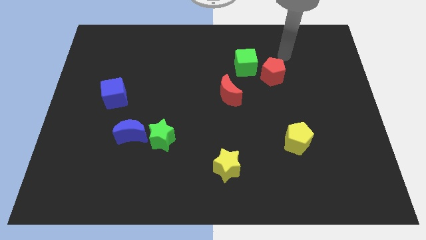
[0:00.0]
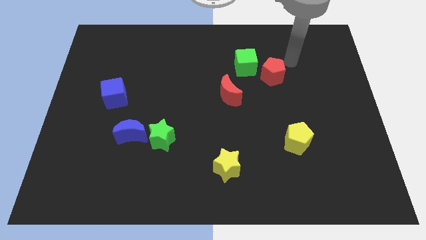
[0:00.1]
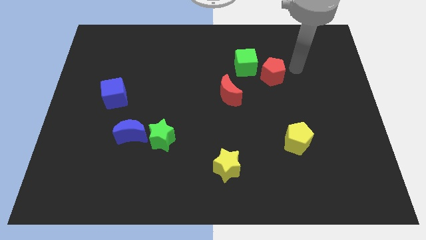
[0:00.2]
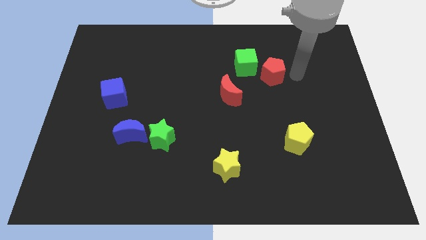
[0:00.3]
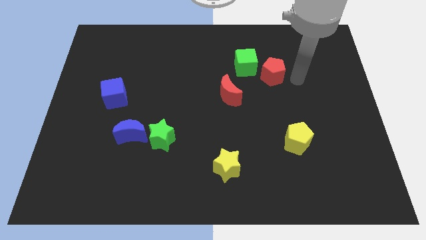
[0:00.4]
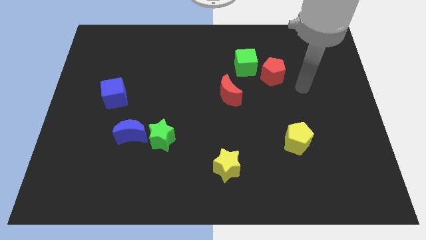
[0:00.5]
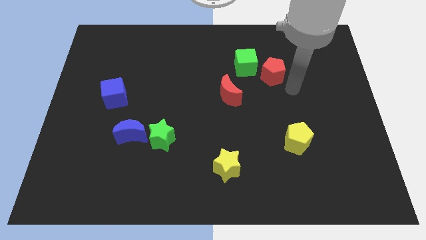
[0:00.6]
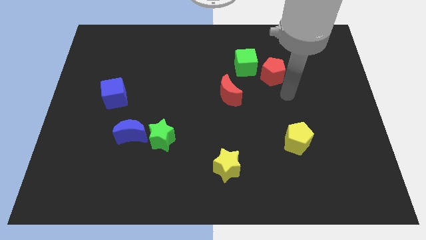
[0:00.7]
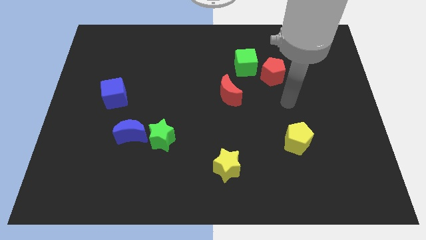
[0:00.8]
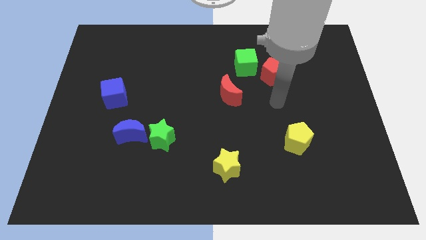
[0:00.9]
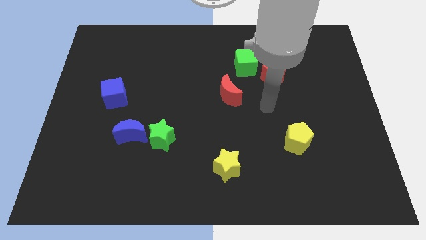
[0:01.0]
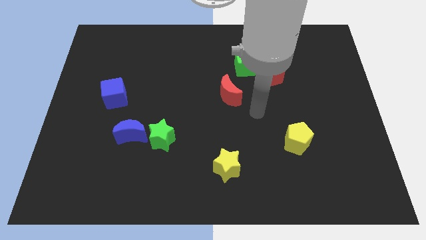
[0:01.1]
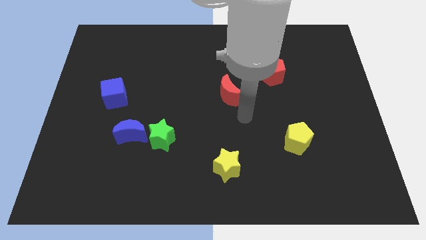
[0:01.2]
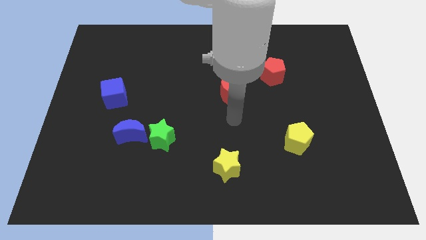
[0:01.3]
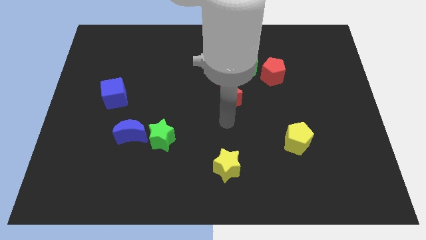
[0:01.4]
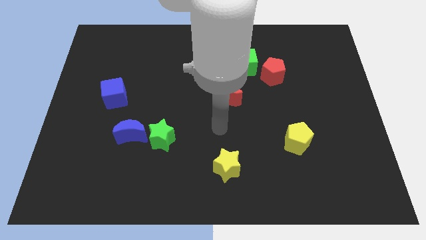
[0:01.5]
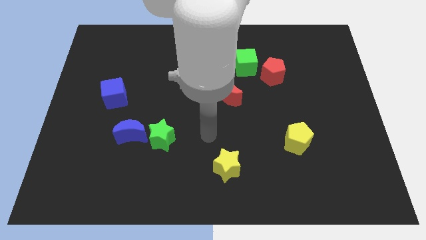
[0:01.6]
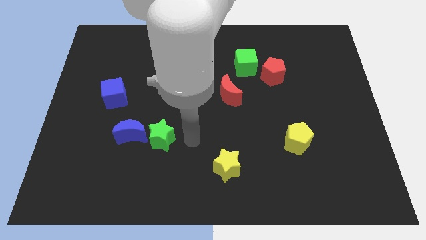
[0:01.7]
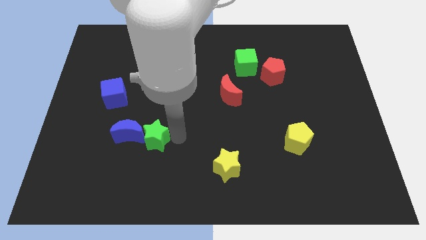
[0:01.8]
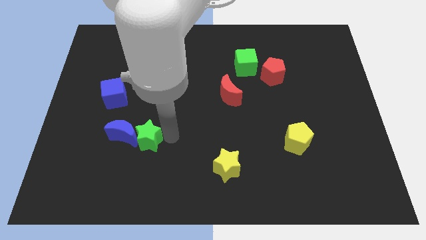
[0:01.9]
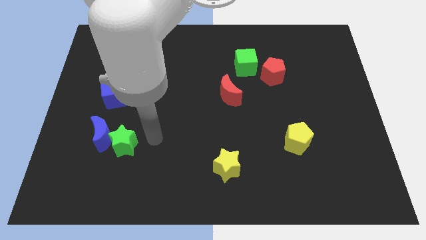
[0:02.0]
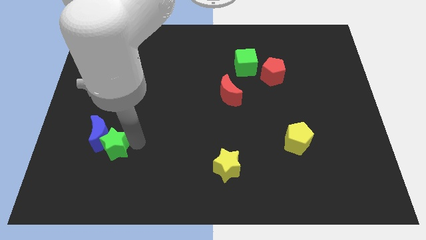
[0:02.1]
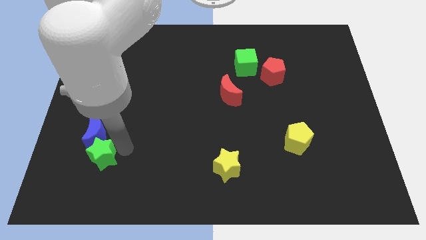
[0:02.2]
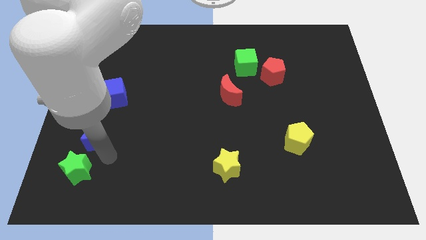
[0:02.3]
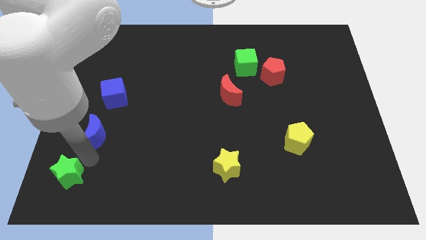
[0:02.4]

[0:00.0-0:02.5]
pull the blue moon apart from the green star

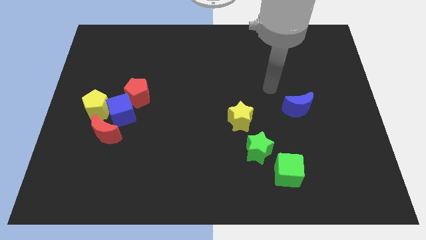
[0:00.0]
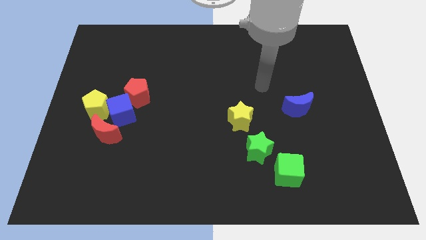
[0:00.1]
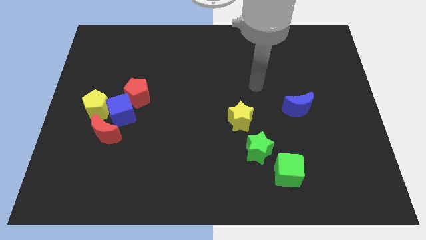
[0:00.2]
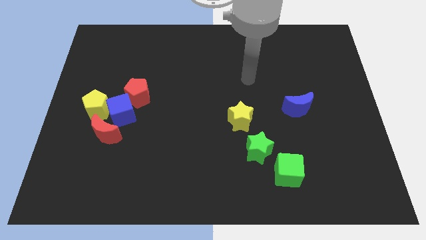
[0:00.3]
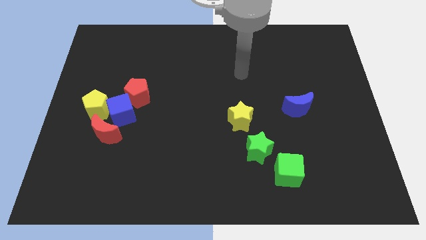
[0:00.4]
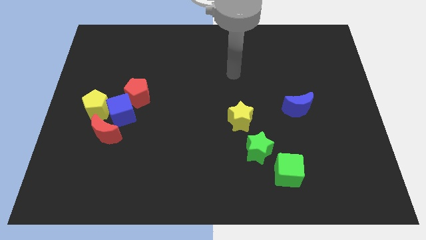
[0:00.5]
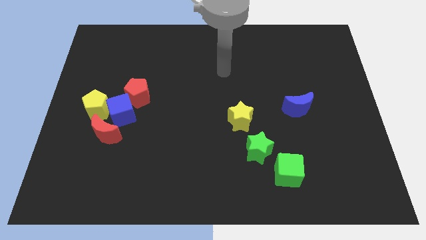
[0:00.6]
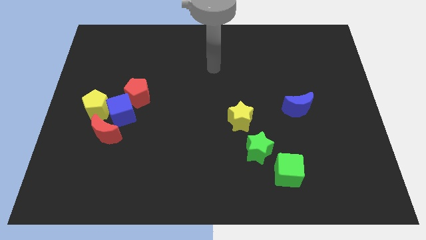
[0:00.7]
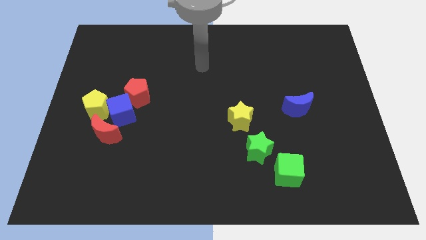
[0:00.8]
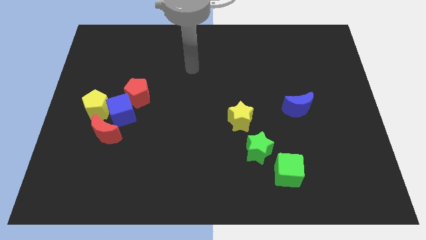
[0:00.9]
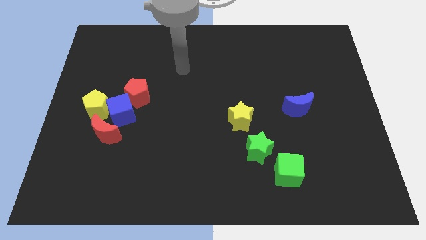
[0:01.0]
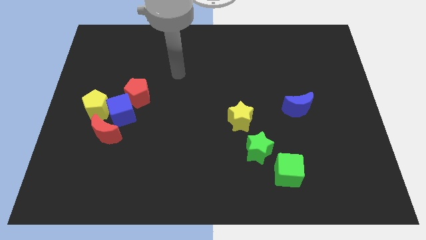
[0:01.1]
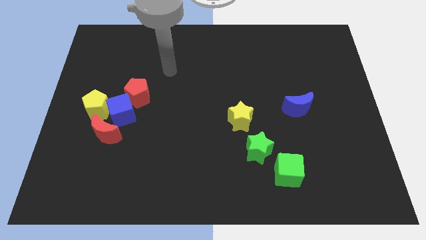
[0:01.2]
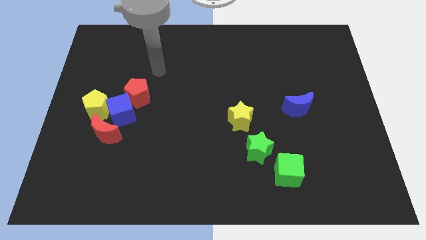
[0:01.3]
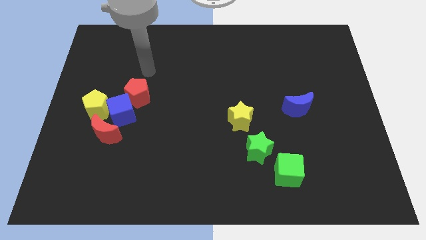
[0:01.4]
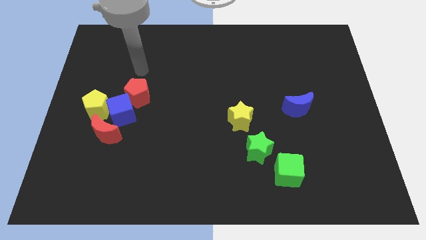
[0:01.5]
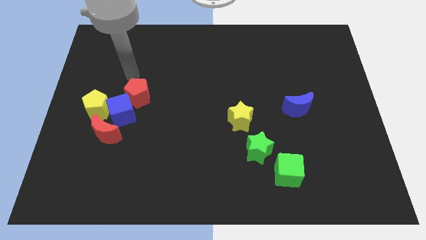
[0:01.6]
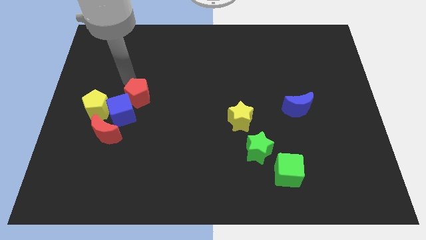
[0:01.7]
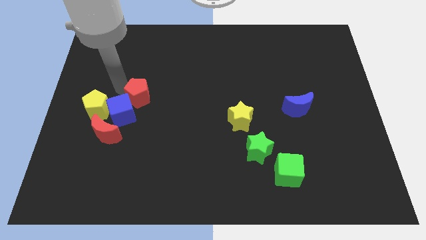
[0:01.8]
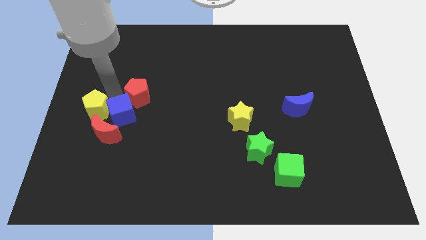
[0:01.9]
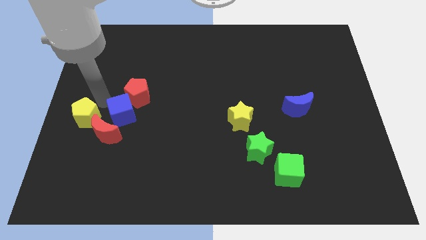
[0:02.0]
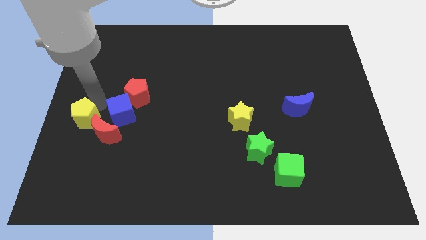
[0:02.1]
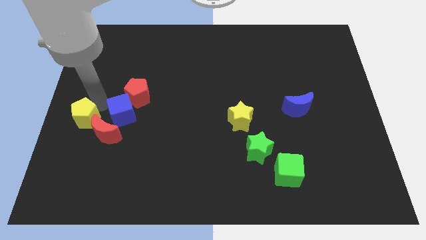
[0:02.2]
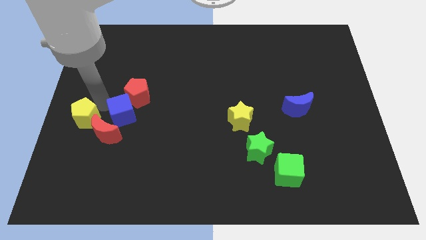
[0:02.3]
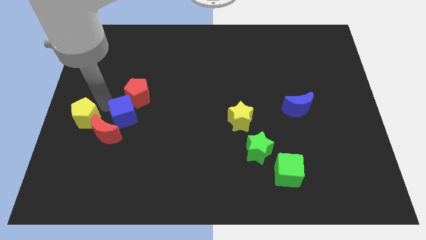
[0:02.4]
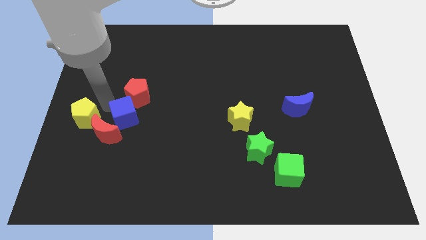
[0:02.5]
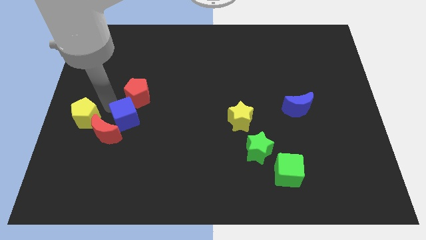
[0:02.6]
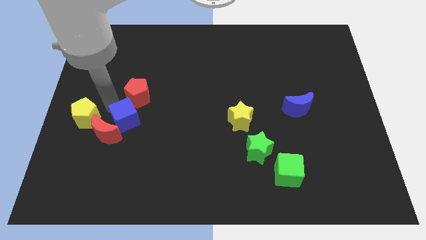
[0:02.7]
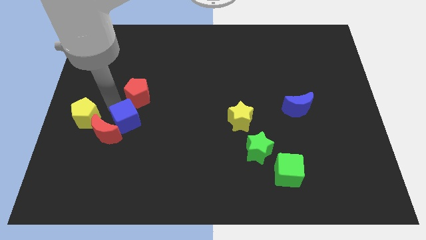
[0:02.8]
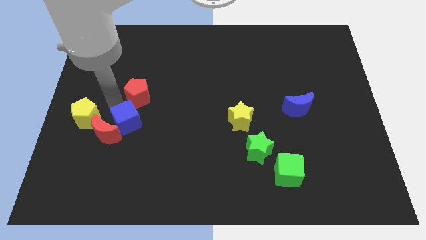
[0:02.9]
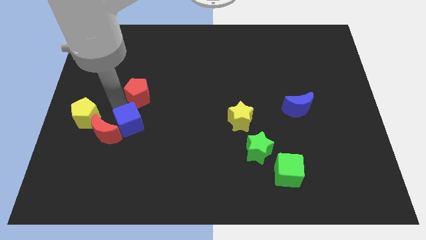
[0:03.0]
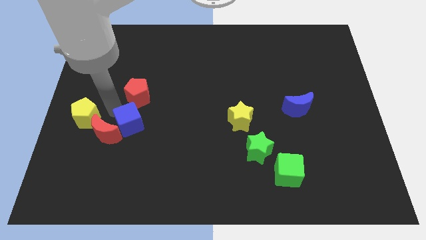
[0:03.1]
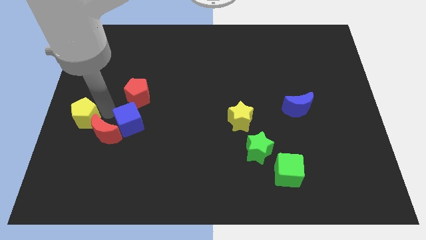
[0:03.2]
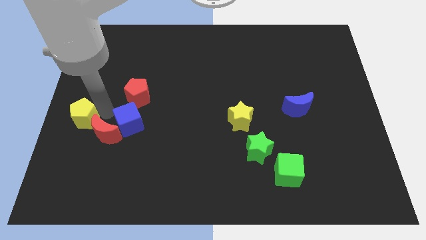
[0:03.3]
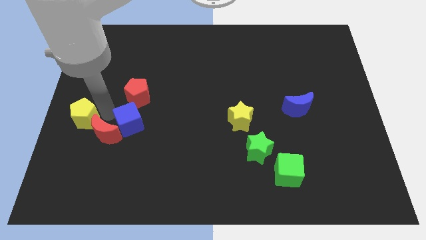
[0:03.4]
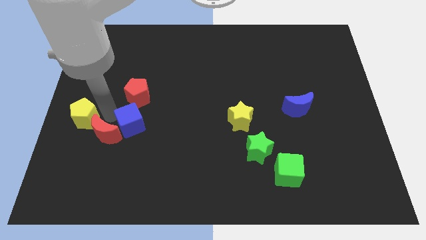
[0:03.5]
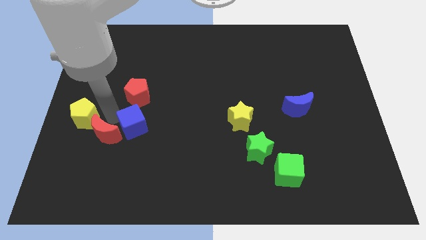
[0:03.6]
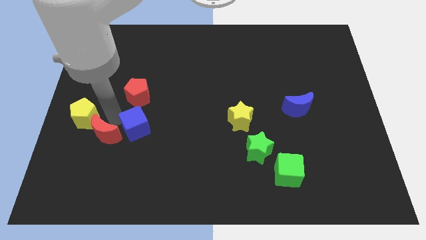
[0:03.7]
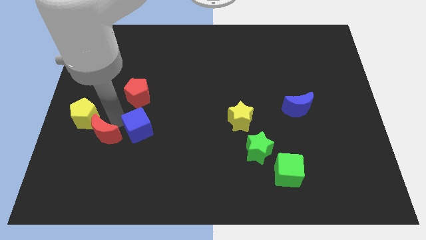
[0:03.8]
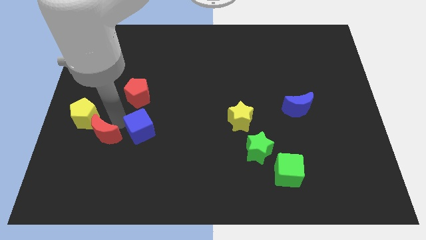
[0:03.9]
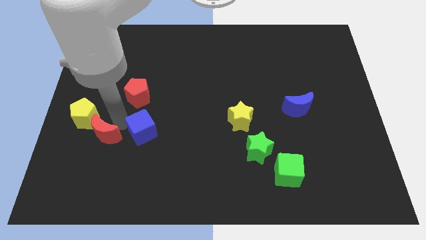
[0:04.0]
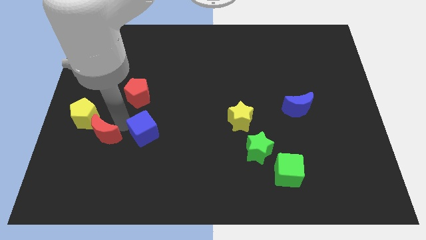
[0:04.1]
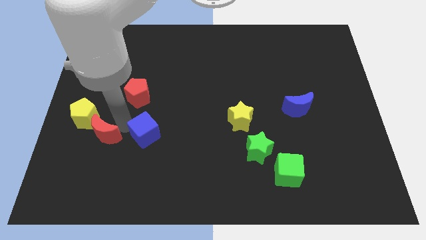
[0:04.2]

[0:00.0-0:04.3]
pull the blue cube apart from the clump

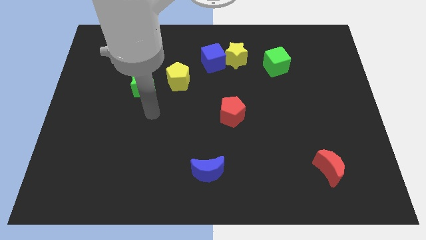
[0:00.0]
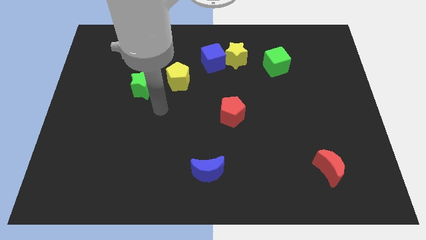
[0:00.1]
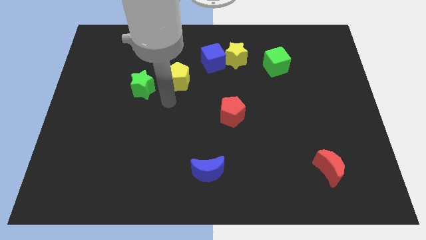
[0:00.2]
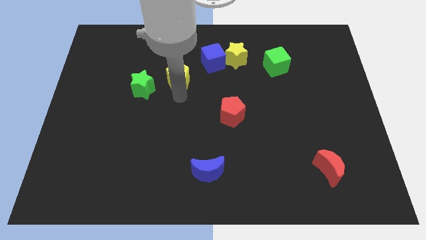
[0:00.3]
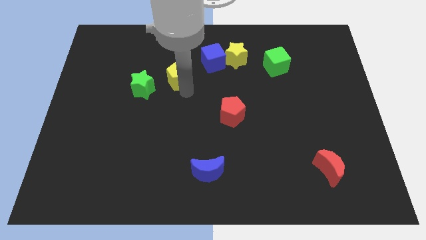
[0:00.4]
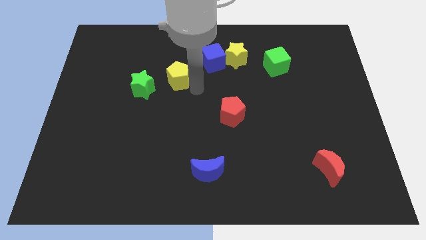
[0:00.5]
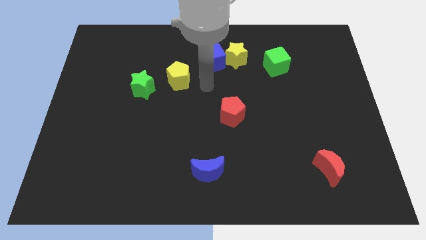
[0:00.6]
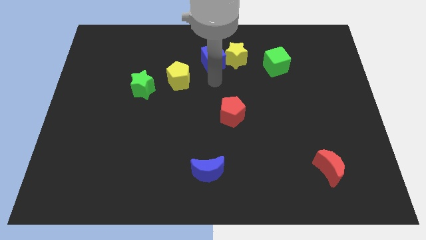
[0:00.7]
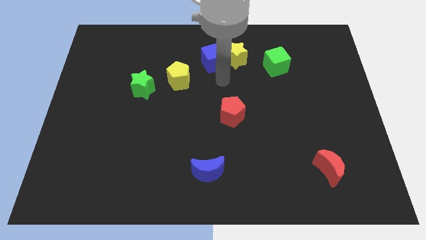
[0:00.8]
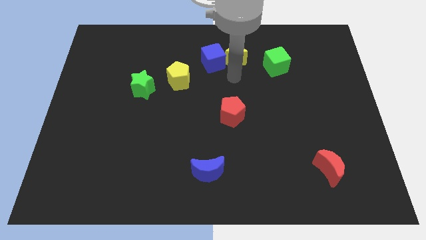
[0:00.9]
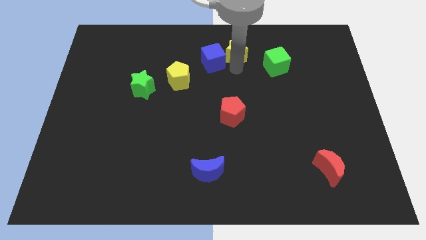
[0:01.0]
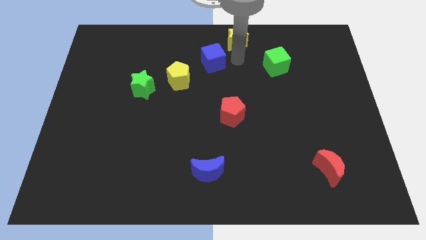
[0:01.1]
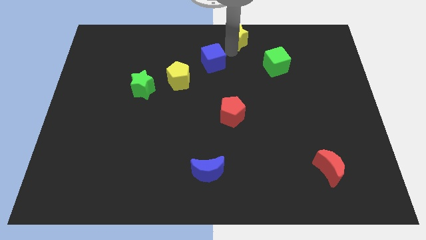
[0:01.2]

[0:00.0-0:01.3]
move the blue cube away from the yellow star

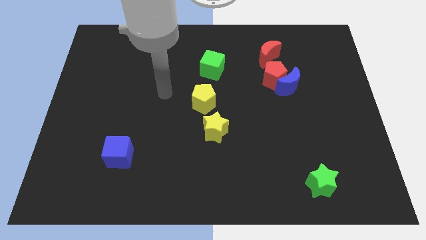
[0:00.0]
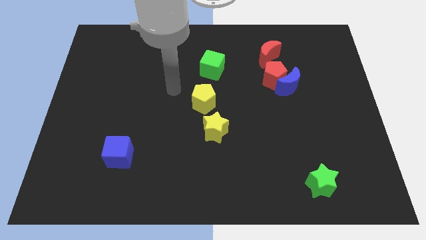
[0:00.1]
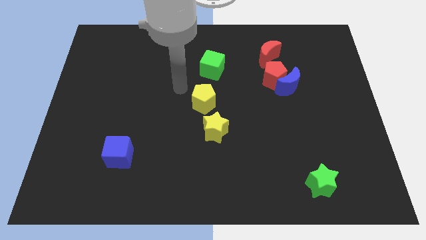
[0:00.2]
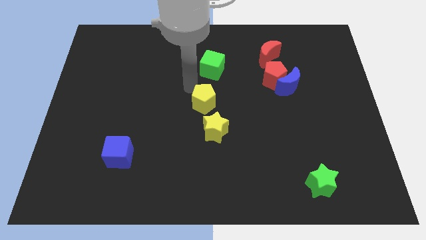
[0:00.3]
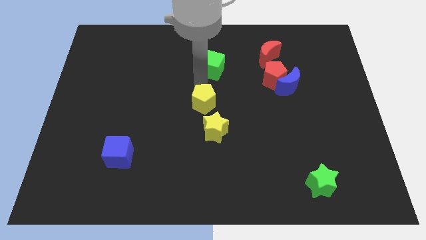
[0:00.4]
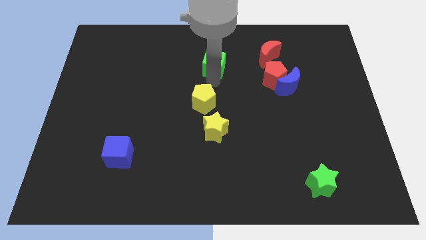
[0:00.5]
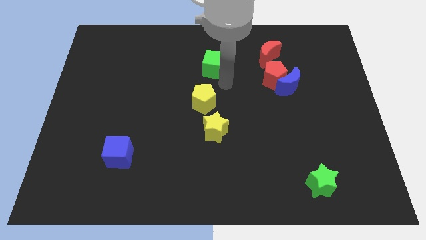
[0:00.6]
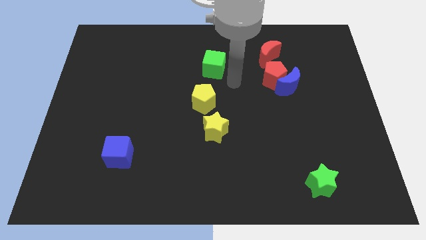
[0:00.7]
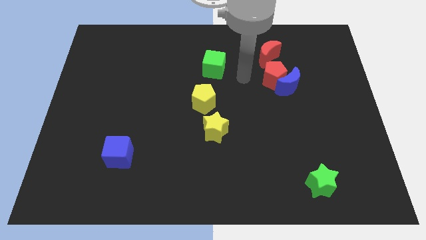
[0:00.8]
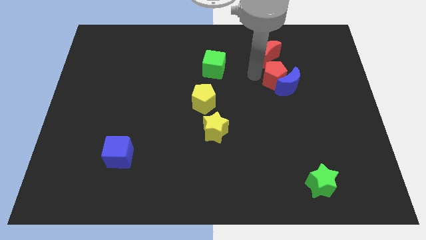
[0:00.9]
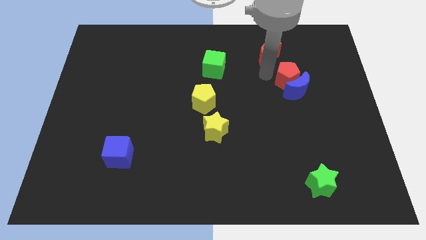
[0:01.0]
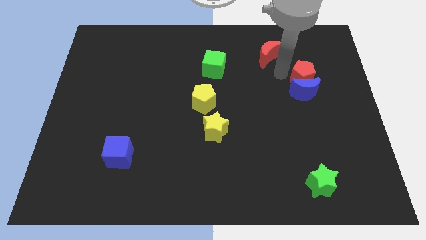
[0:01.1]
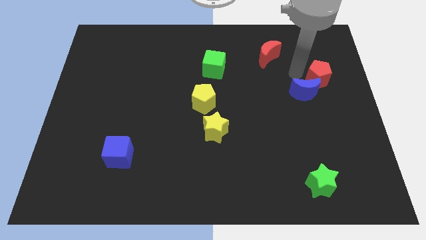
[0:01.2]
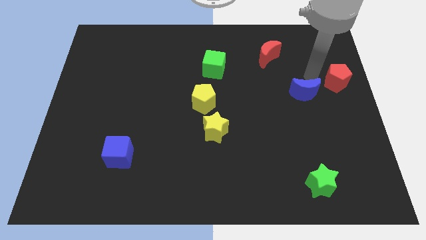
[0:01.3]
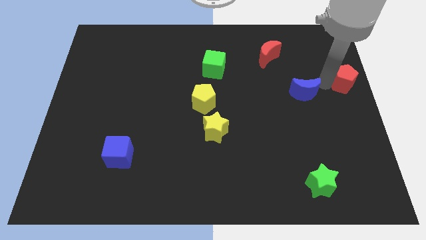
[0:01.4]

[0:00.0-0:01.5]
separate the blue moon from the red pentagon
